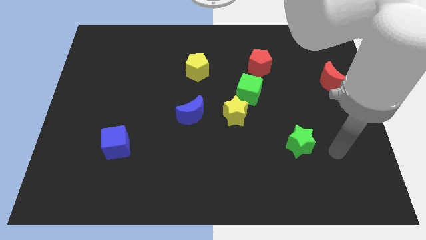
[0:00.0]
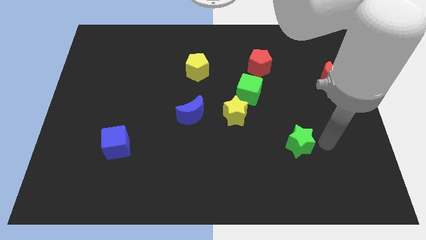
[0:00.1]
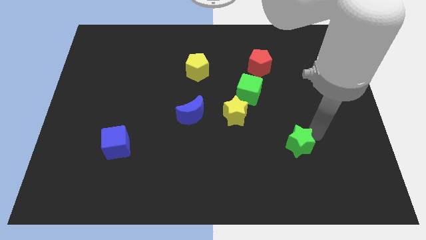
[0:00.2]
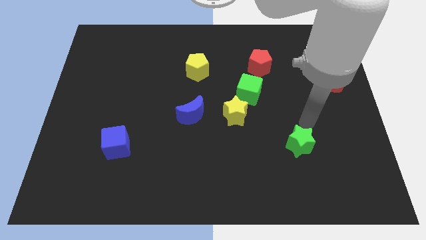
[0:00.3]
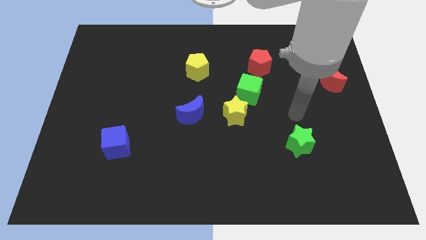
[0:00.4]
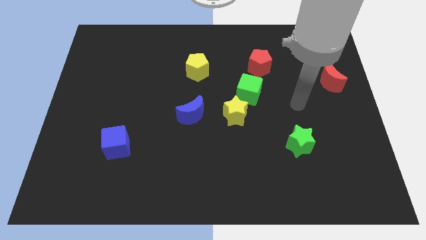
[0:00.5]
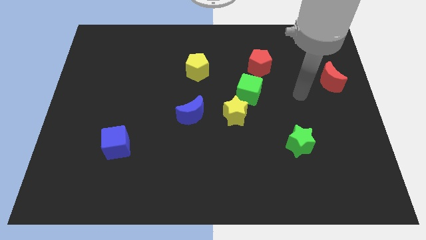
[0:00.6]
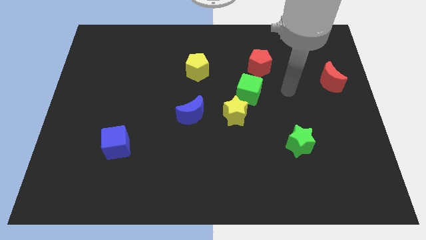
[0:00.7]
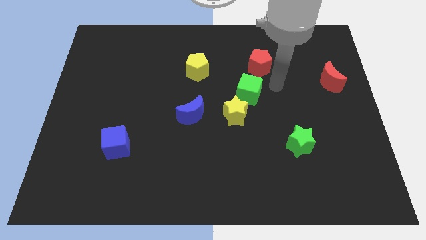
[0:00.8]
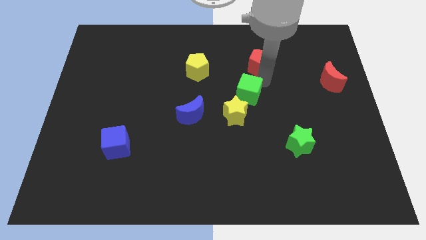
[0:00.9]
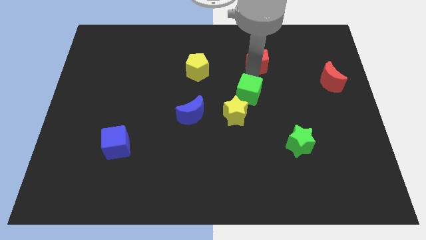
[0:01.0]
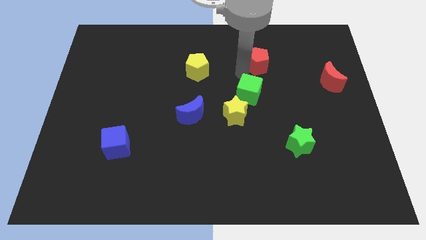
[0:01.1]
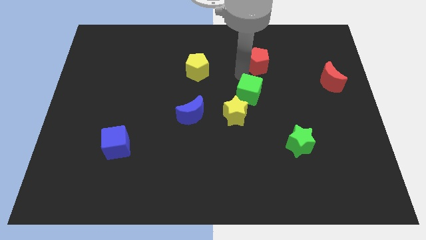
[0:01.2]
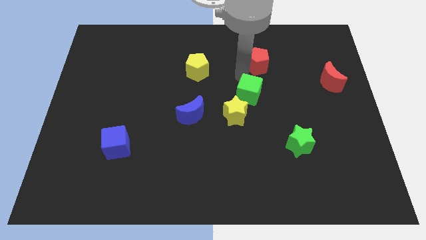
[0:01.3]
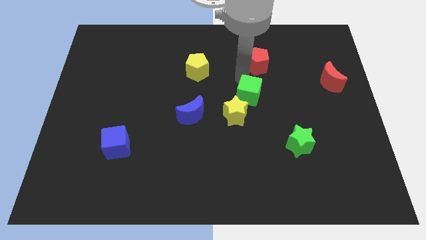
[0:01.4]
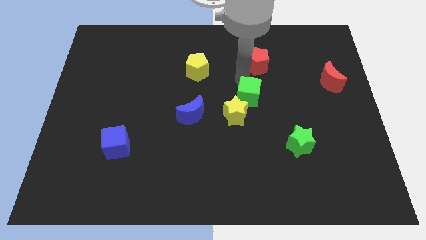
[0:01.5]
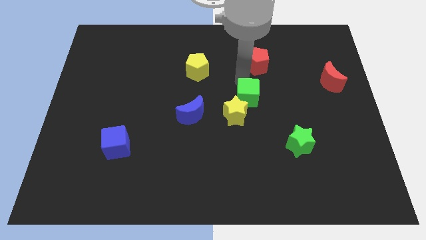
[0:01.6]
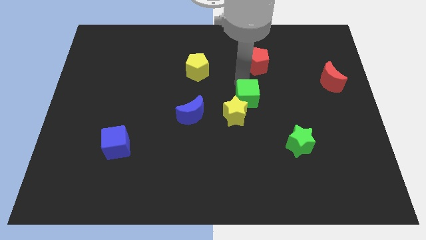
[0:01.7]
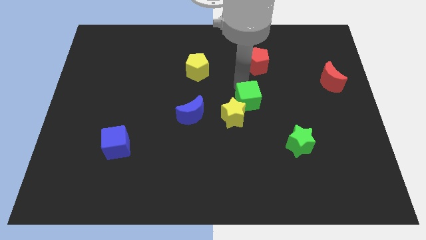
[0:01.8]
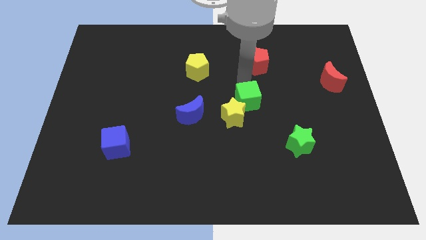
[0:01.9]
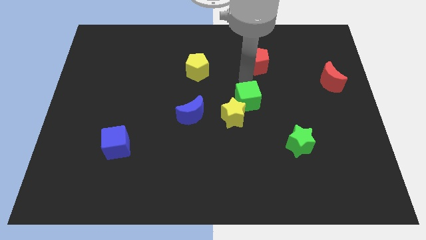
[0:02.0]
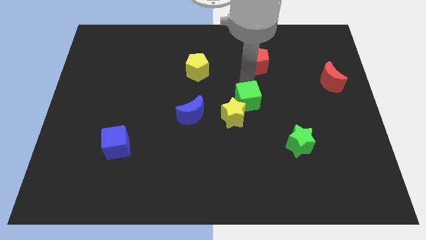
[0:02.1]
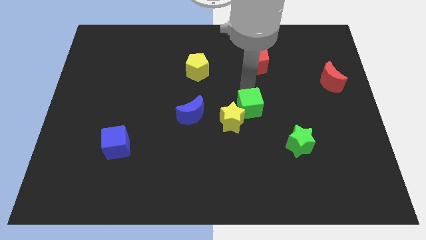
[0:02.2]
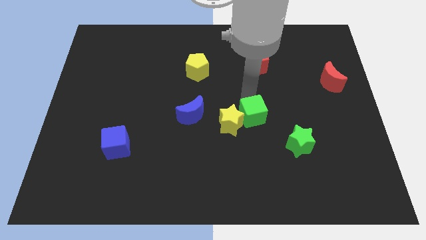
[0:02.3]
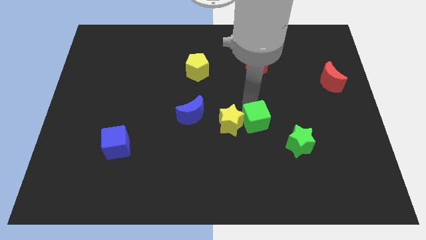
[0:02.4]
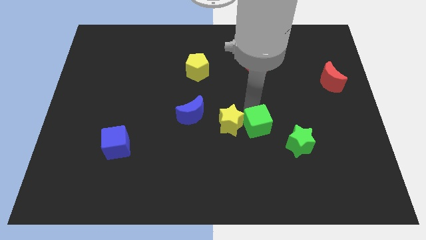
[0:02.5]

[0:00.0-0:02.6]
move the green cube away from the yellow star and red pentagon

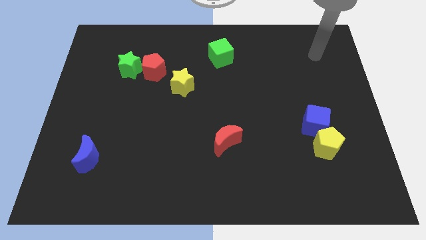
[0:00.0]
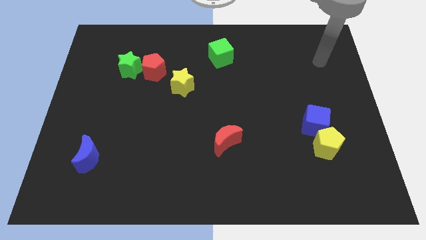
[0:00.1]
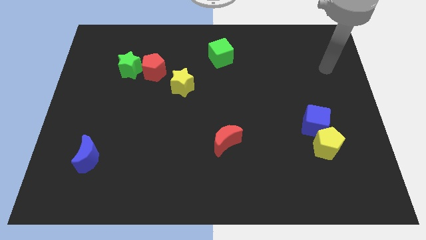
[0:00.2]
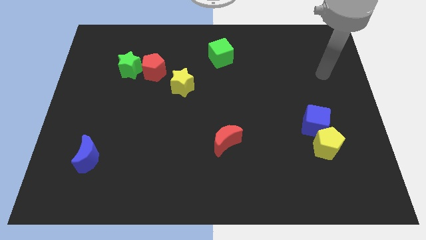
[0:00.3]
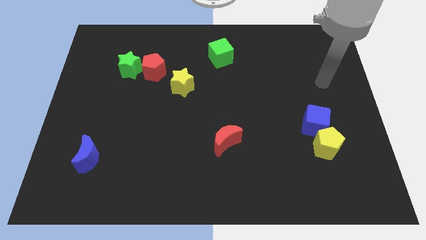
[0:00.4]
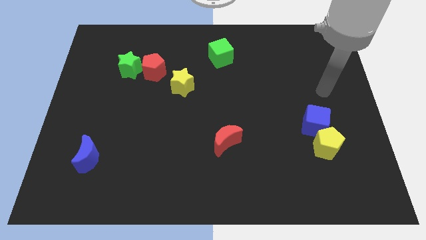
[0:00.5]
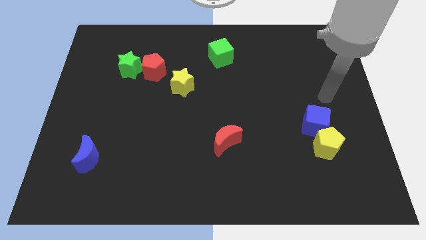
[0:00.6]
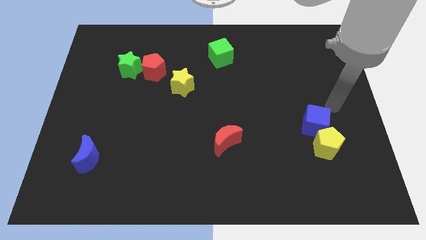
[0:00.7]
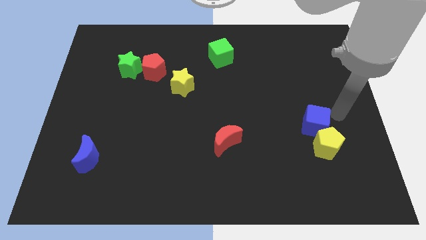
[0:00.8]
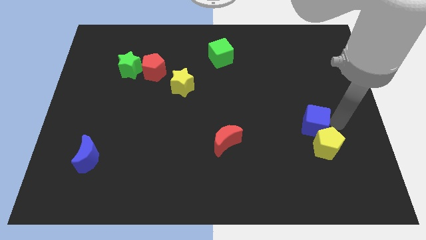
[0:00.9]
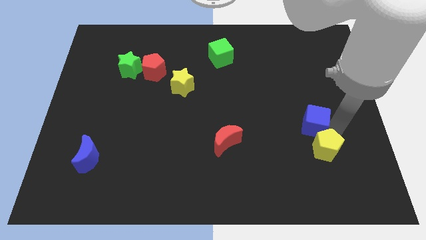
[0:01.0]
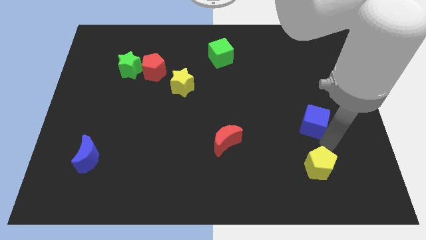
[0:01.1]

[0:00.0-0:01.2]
move the blue cube away from the yellow pentagon

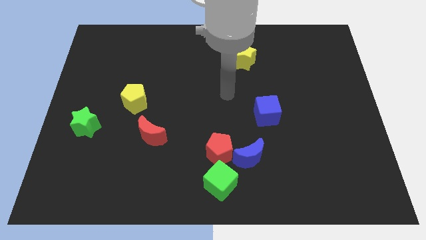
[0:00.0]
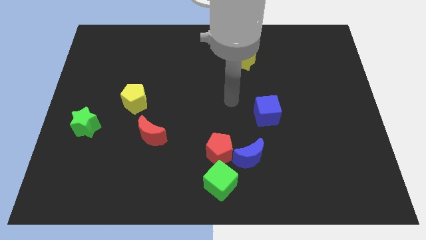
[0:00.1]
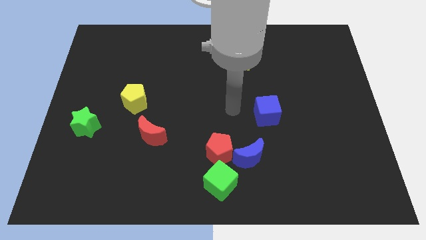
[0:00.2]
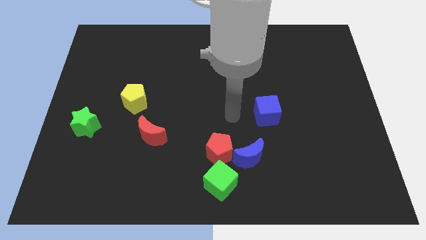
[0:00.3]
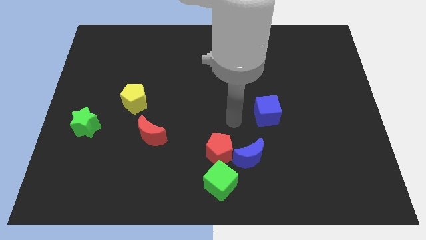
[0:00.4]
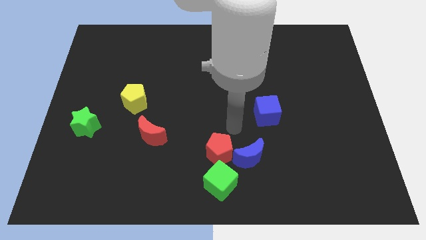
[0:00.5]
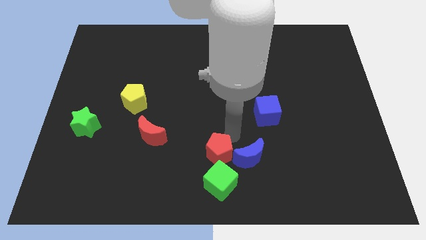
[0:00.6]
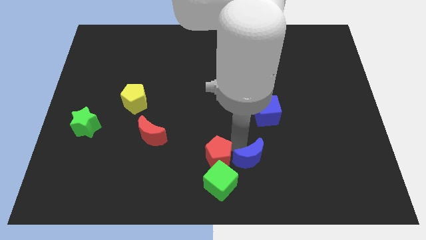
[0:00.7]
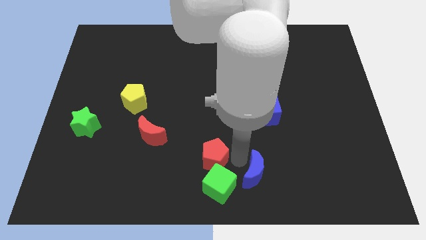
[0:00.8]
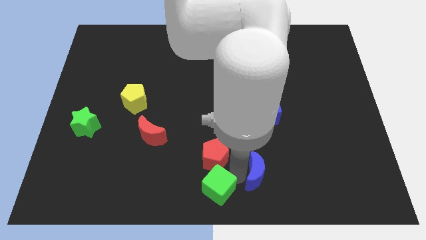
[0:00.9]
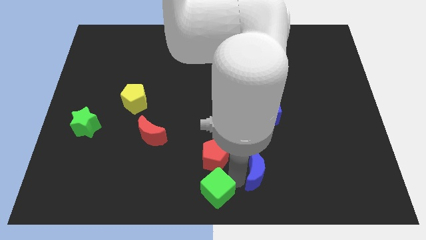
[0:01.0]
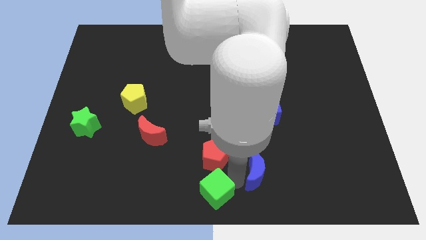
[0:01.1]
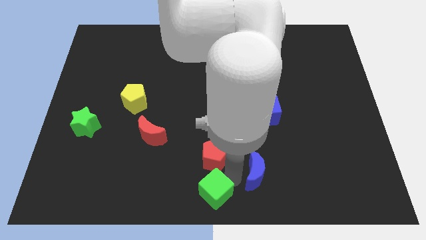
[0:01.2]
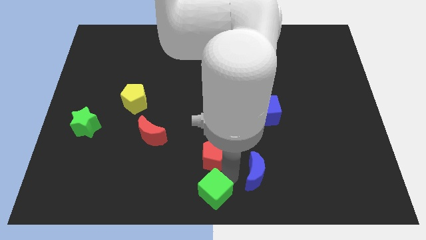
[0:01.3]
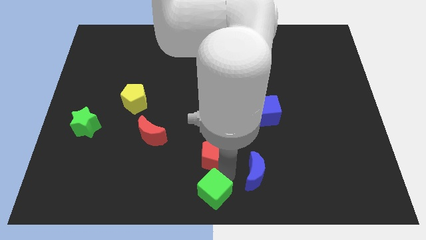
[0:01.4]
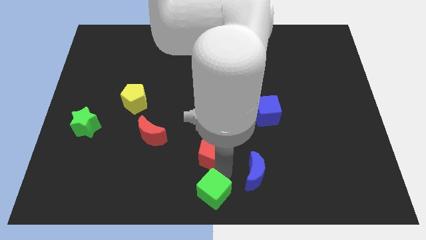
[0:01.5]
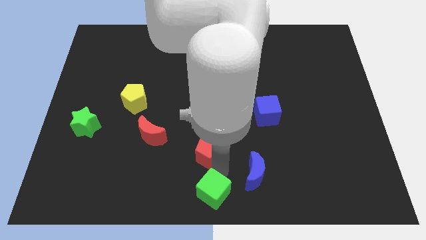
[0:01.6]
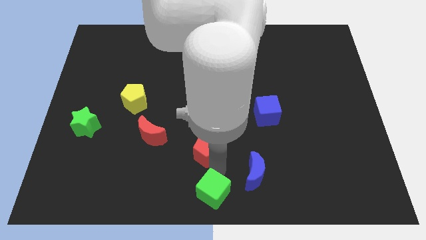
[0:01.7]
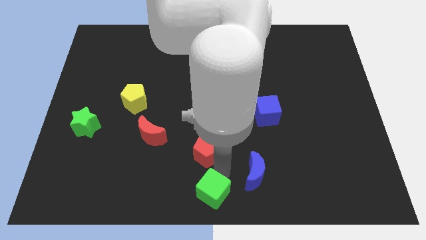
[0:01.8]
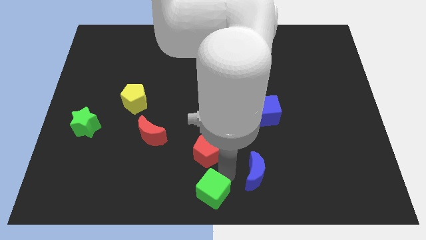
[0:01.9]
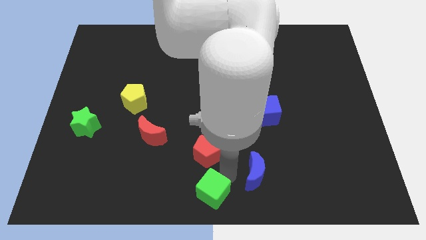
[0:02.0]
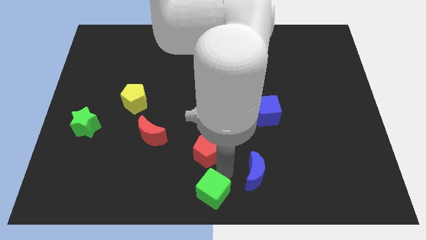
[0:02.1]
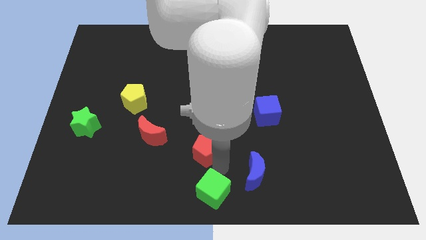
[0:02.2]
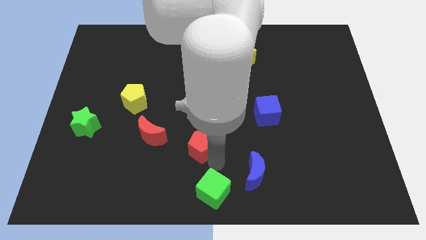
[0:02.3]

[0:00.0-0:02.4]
pull the red pentagon apart from the blue moon and green cube

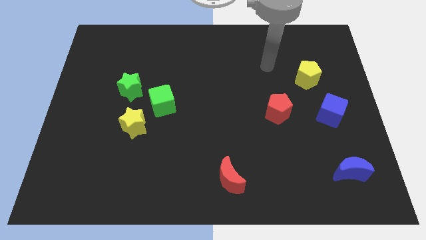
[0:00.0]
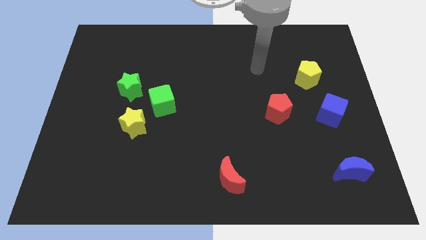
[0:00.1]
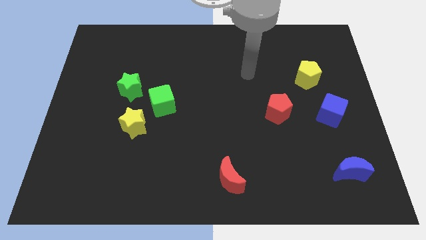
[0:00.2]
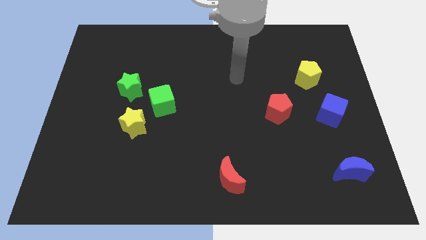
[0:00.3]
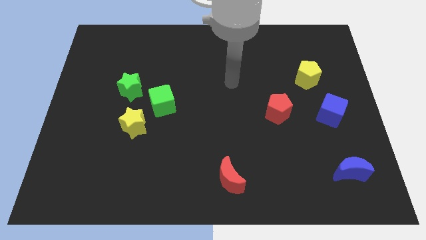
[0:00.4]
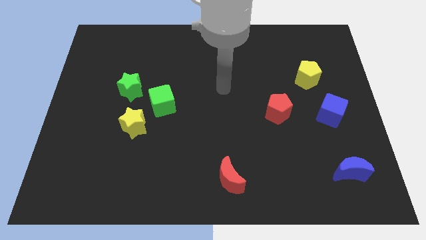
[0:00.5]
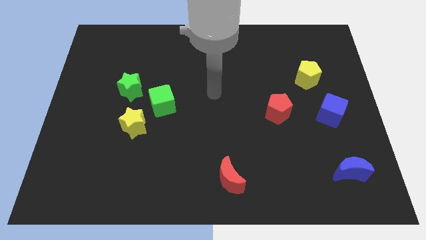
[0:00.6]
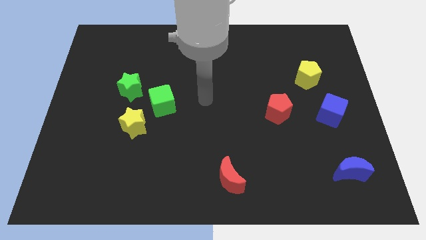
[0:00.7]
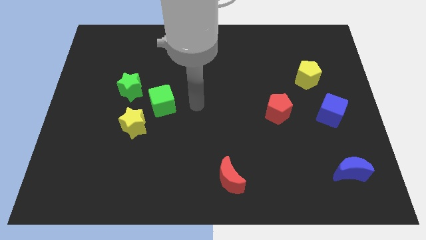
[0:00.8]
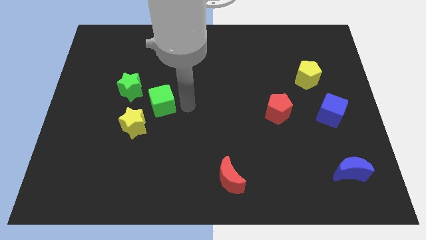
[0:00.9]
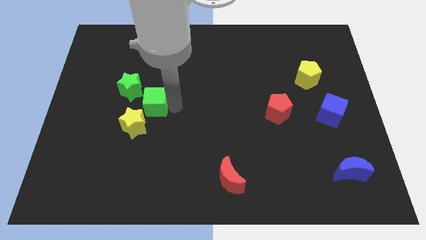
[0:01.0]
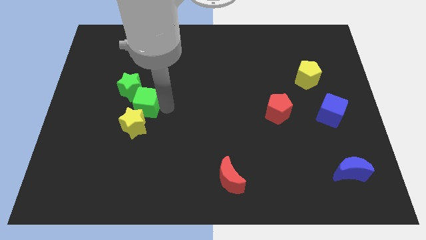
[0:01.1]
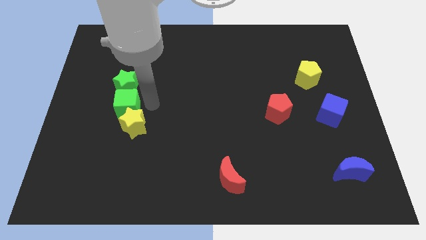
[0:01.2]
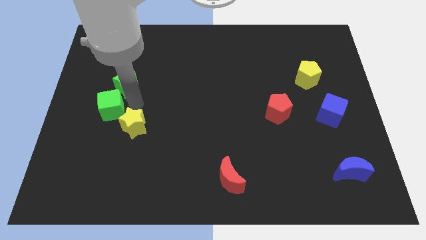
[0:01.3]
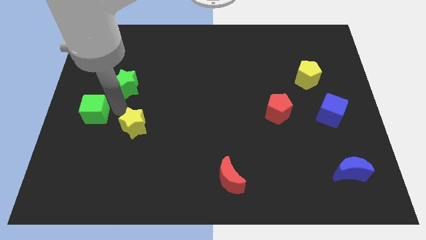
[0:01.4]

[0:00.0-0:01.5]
pull the yellow star apart from the green cube

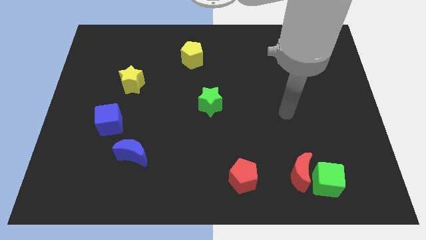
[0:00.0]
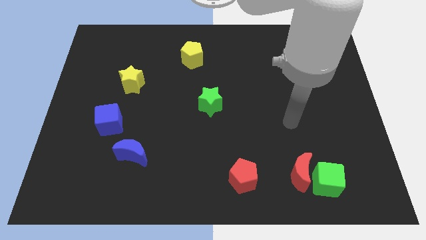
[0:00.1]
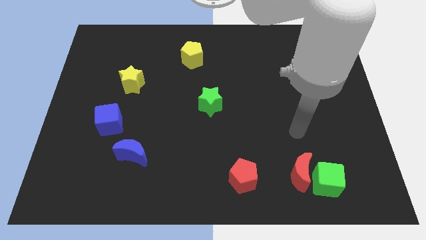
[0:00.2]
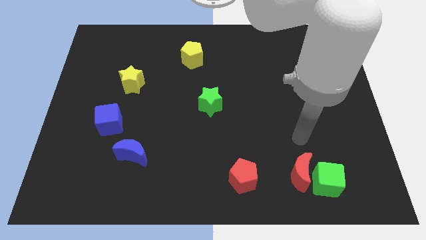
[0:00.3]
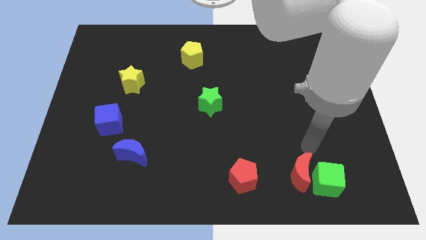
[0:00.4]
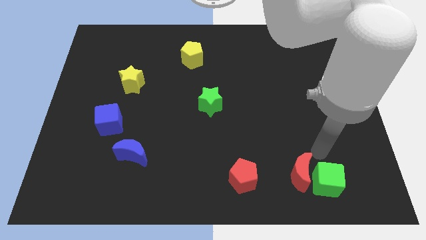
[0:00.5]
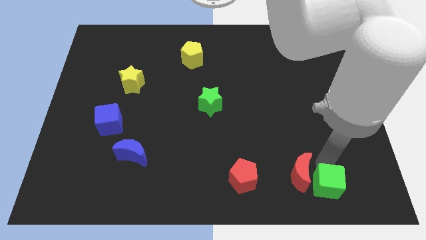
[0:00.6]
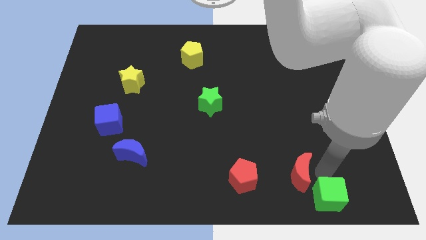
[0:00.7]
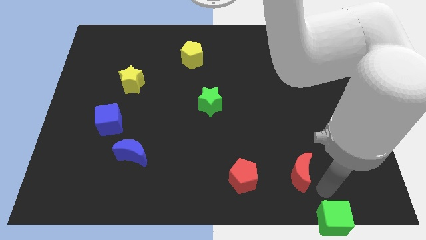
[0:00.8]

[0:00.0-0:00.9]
move the red moon away from the green cube

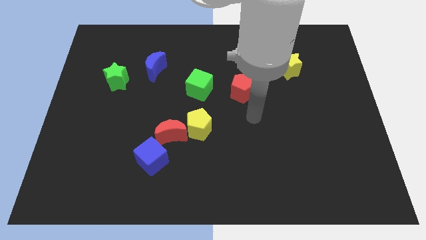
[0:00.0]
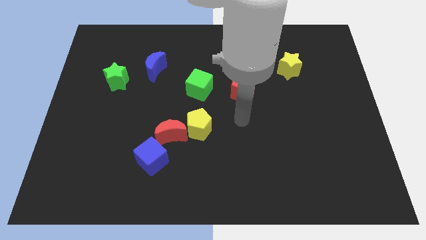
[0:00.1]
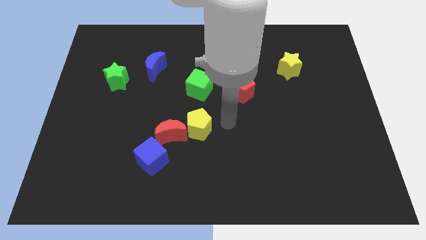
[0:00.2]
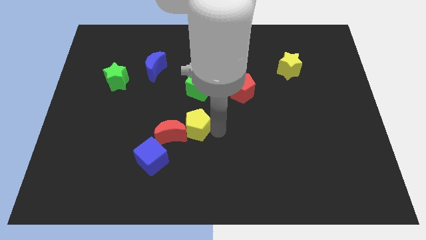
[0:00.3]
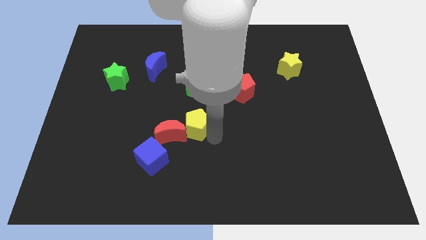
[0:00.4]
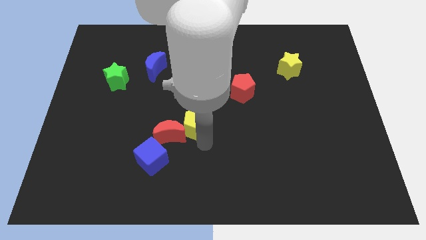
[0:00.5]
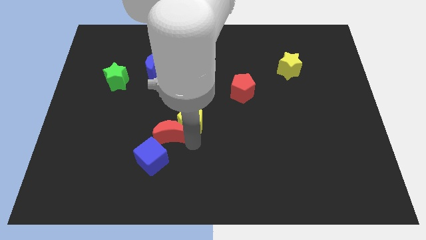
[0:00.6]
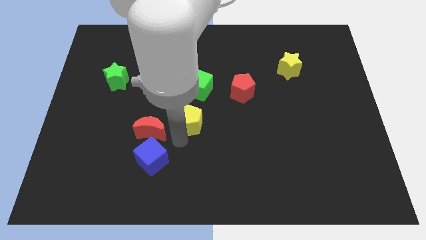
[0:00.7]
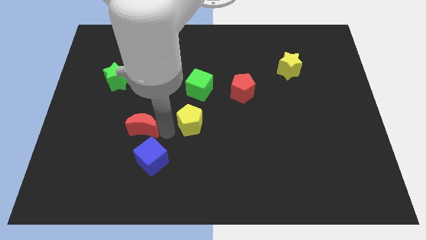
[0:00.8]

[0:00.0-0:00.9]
separate the yellow pentagon from the red moon
